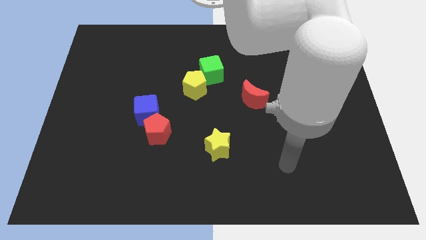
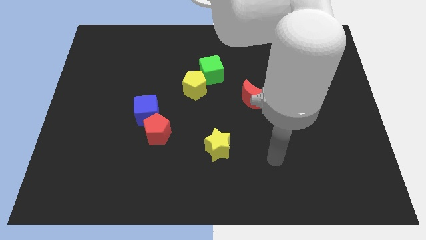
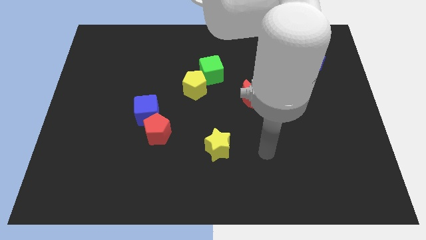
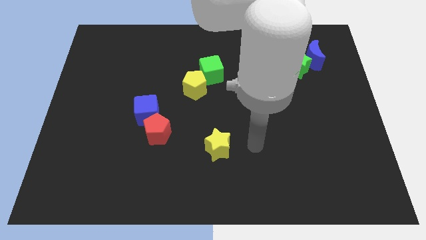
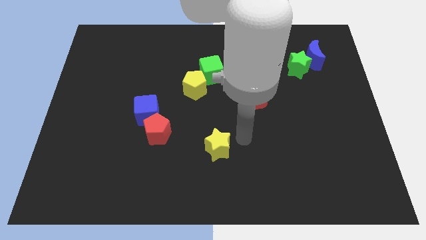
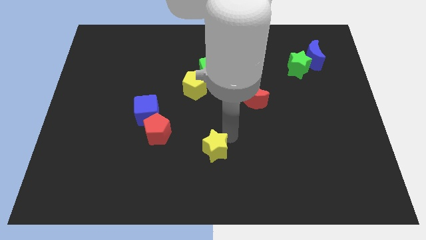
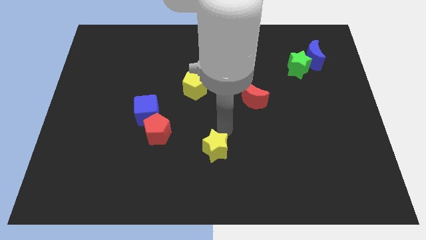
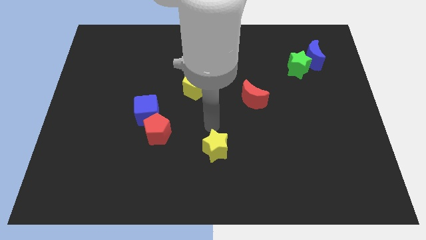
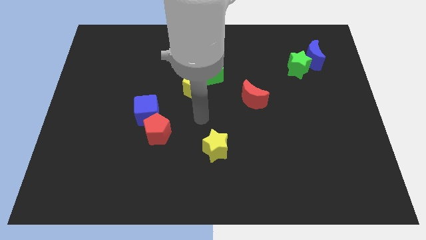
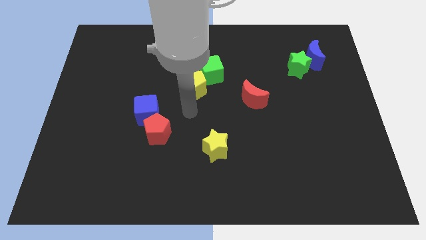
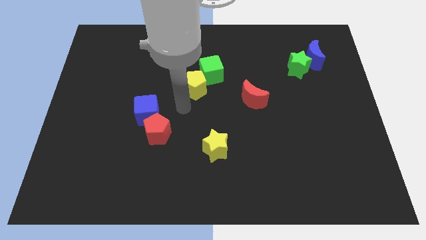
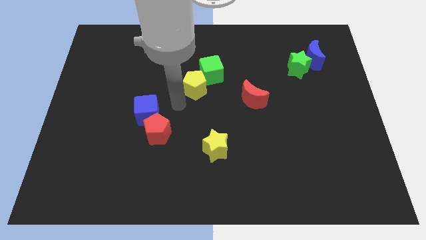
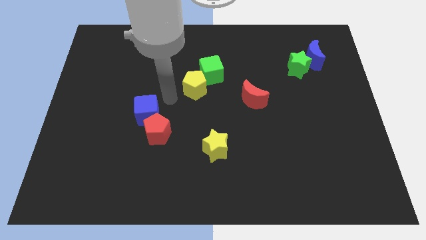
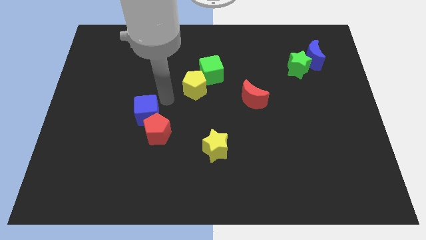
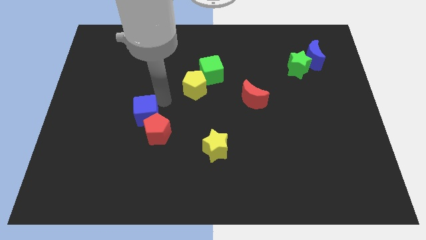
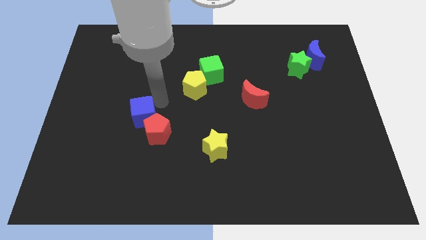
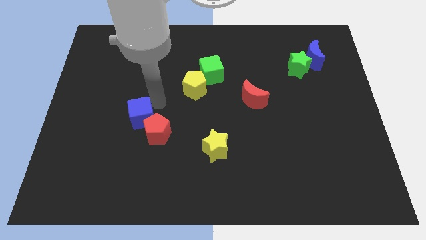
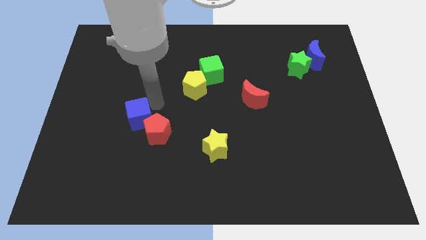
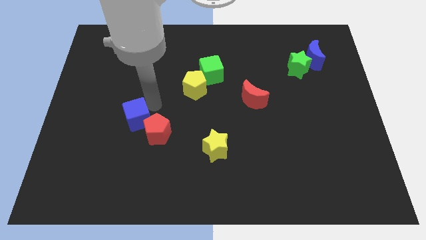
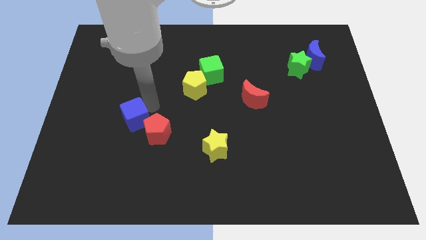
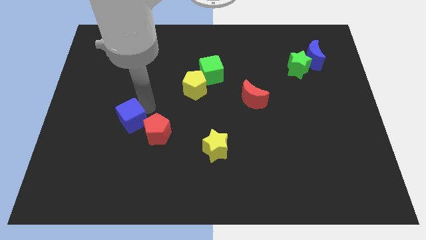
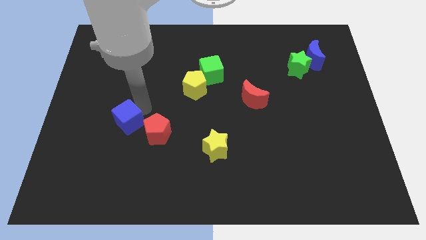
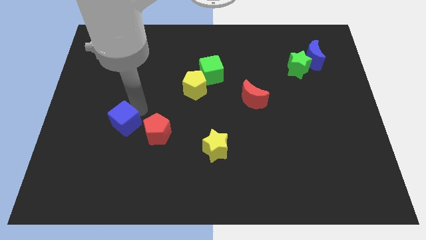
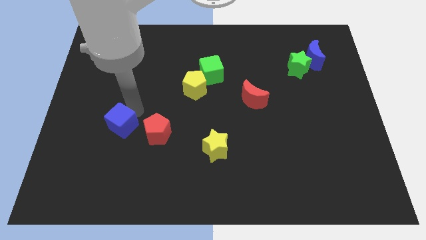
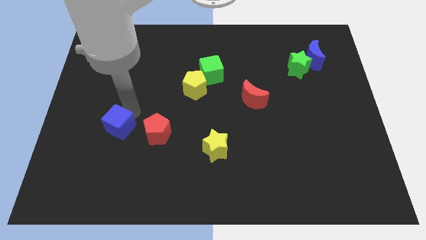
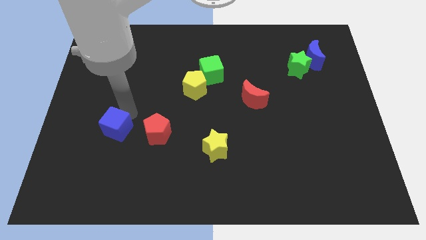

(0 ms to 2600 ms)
push the blue cube diagonally down and left a little bit

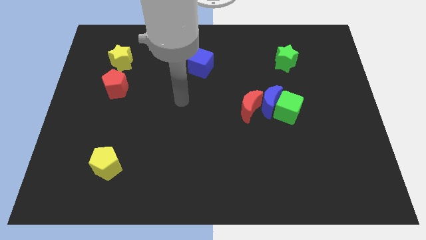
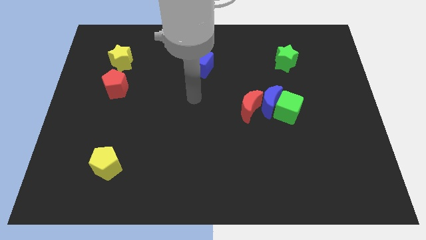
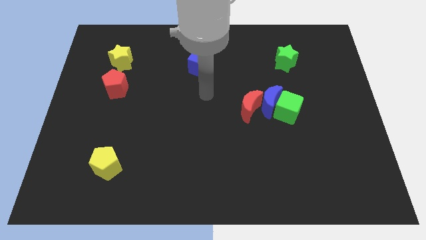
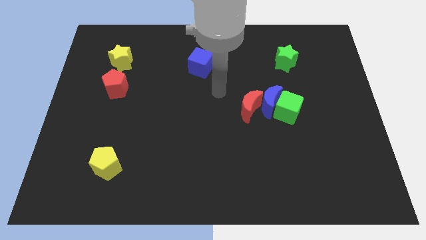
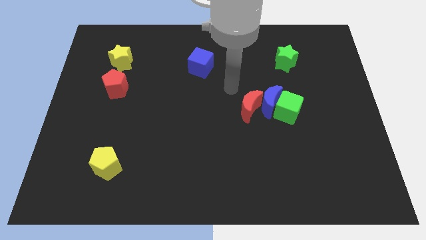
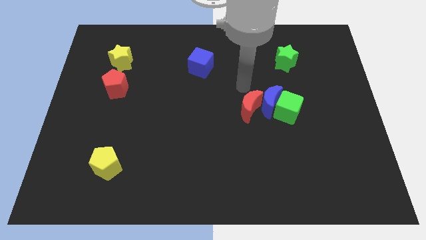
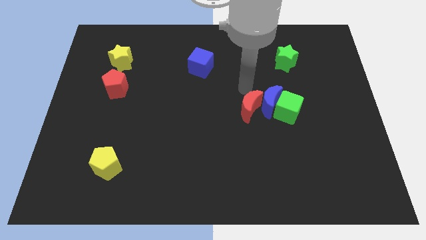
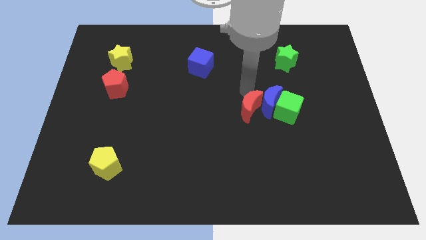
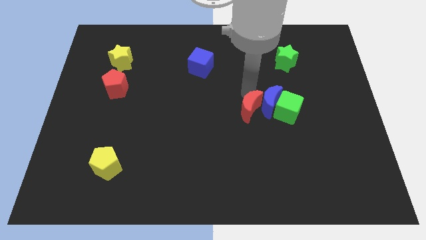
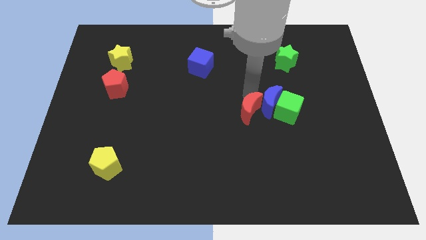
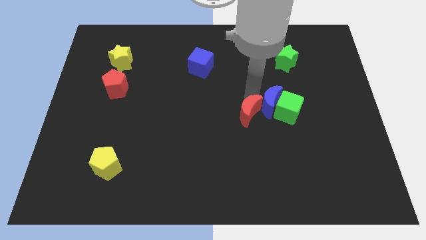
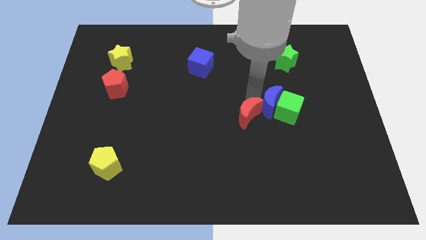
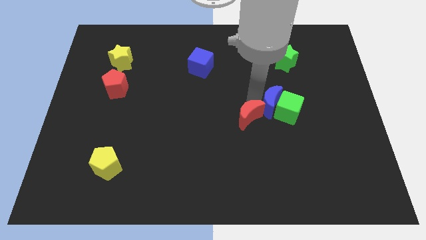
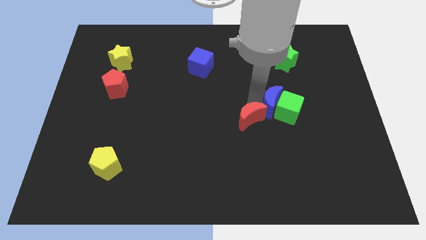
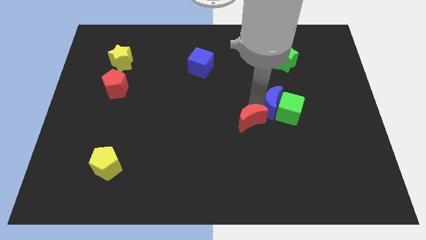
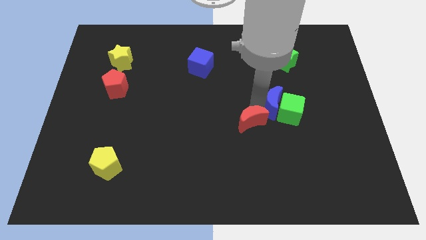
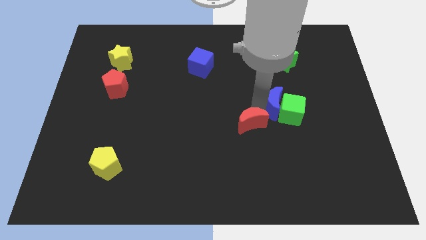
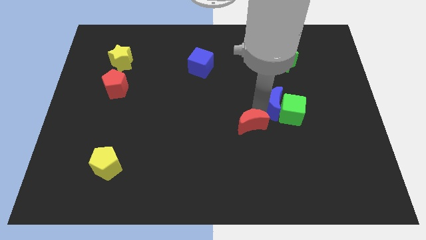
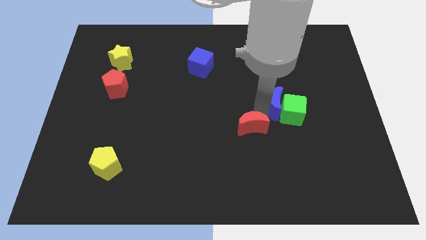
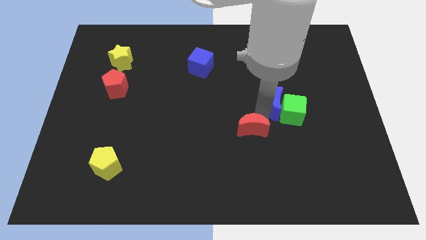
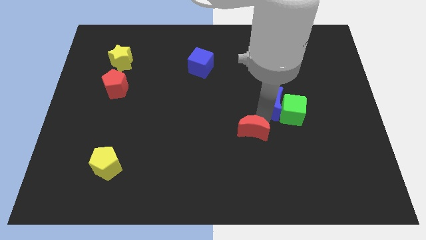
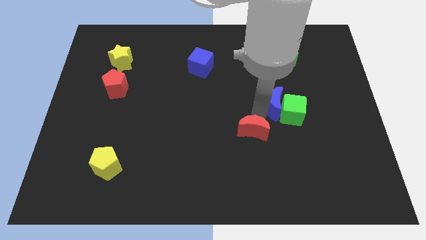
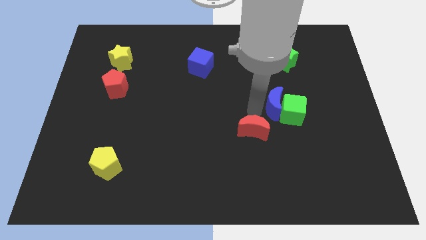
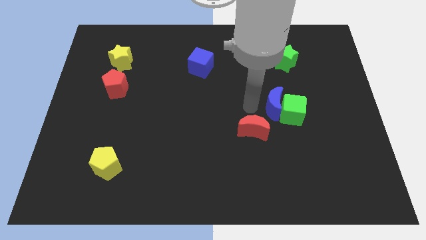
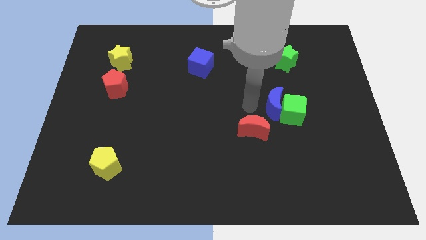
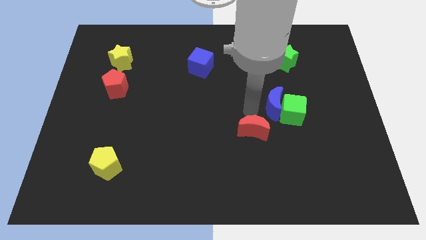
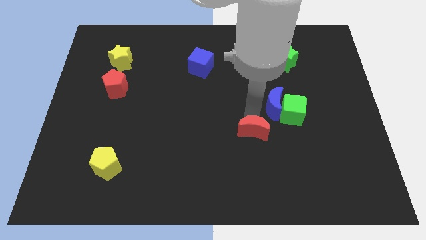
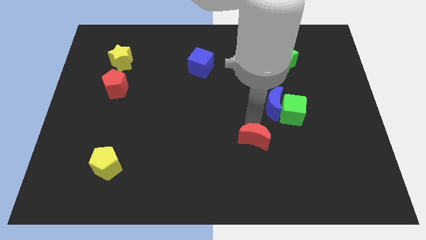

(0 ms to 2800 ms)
push the red moon downwards somewhat

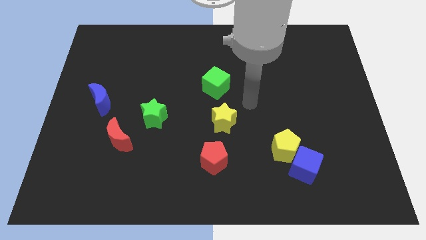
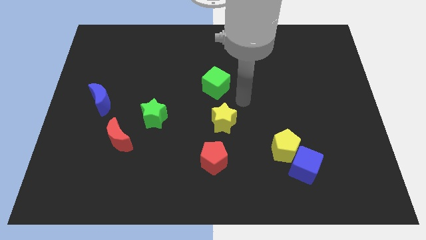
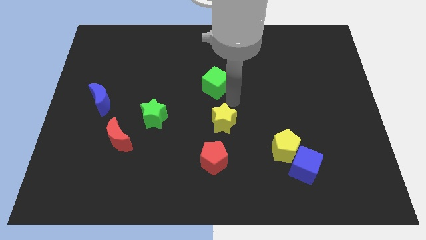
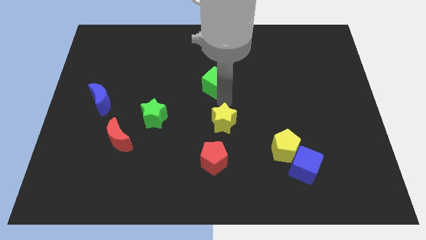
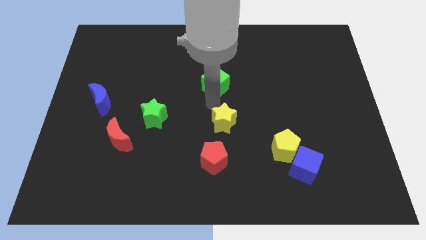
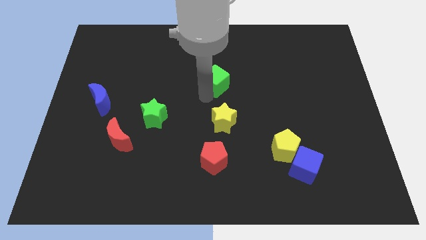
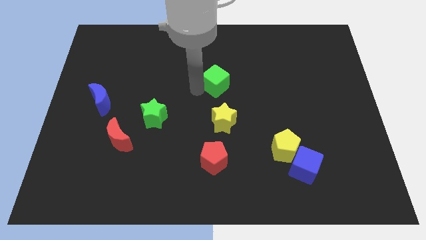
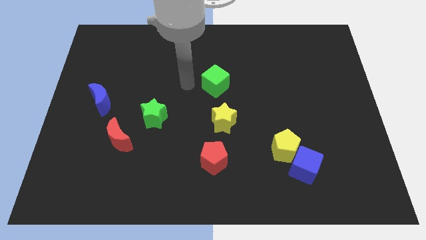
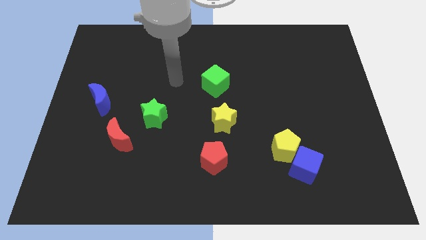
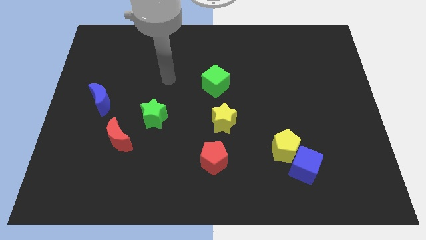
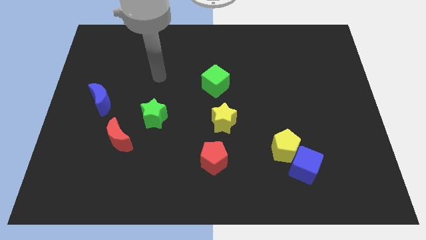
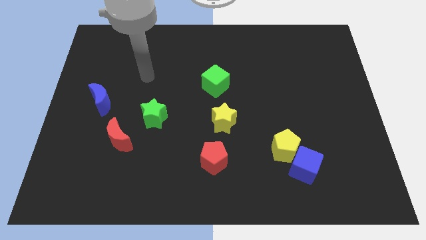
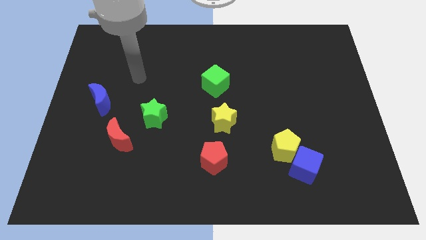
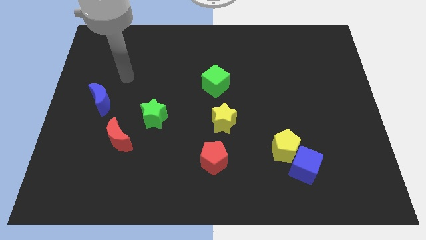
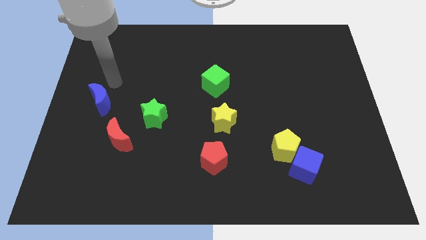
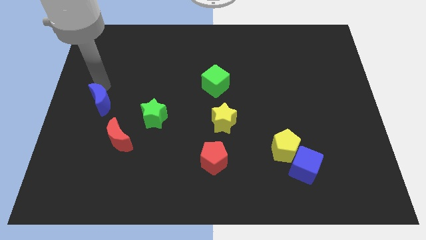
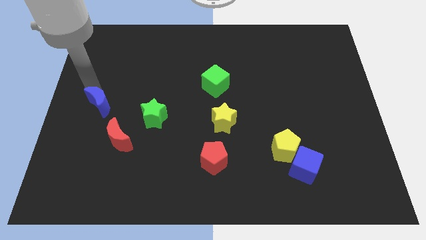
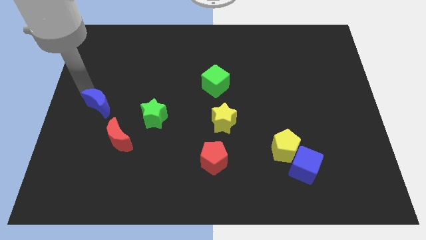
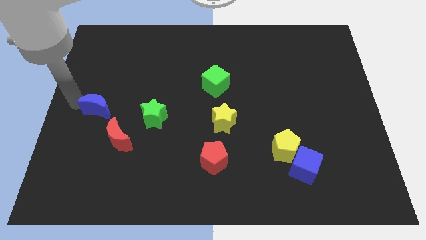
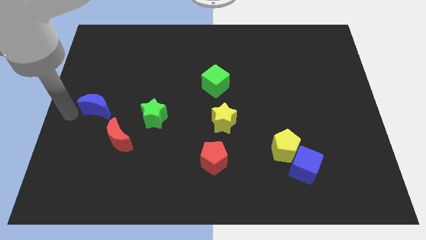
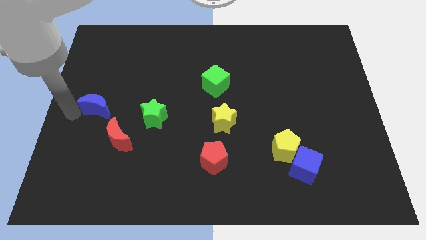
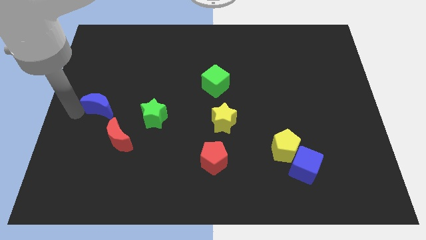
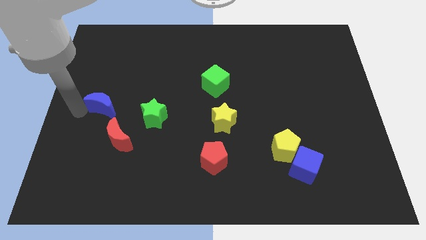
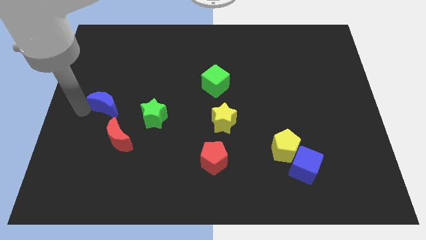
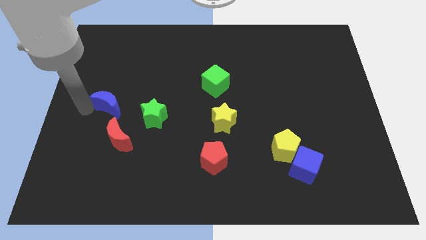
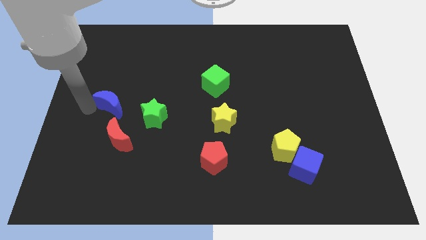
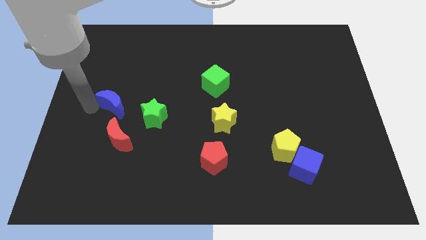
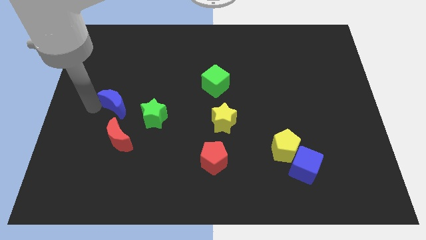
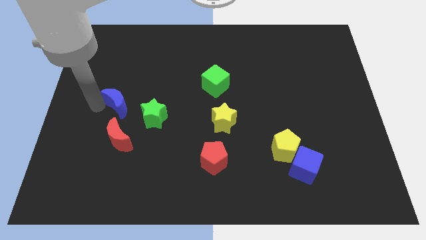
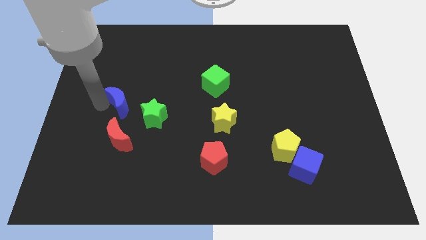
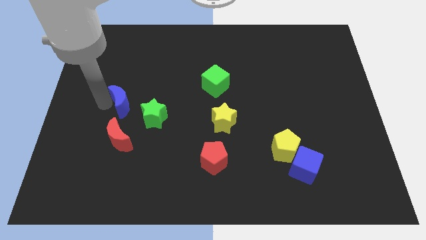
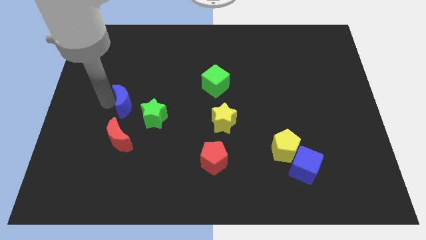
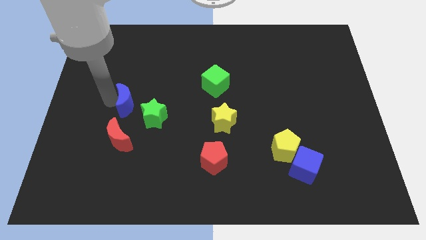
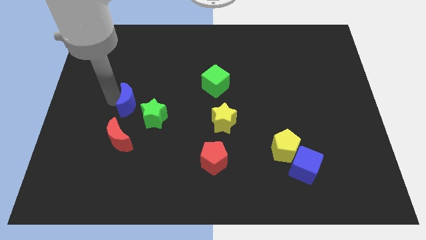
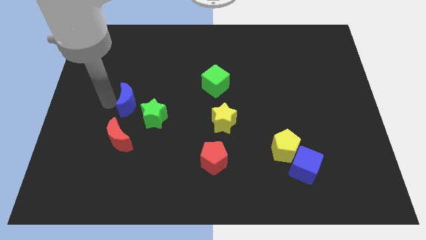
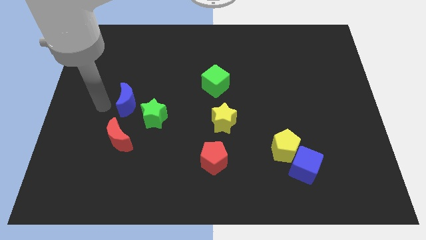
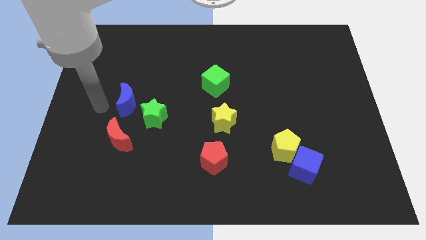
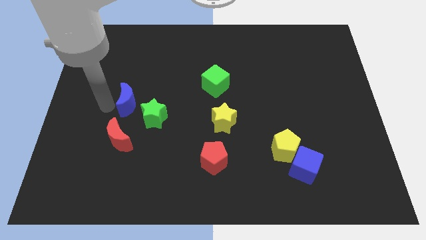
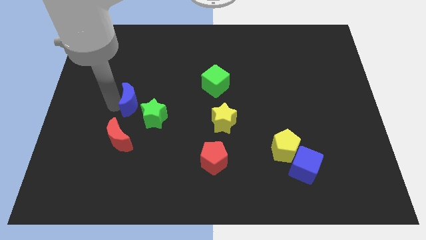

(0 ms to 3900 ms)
slightly slide the blue moon to the right
